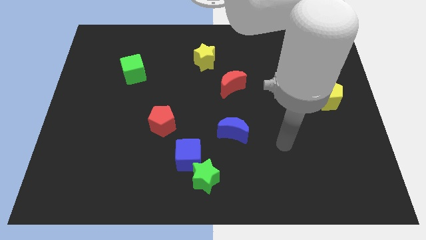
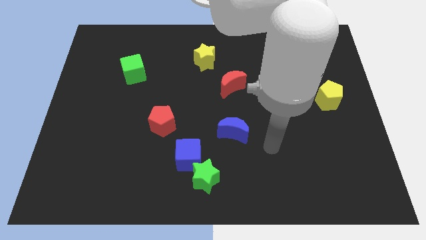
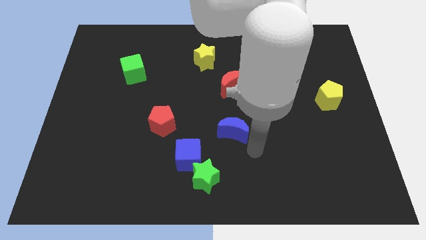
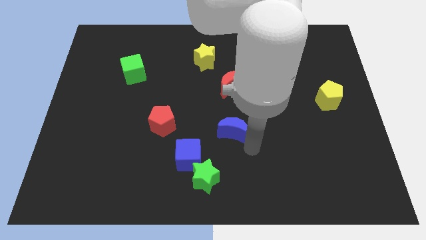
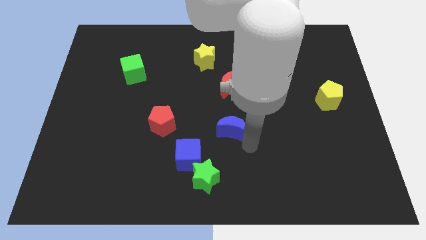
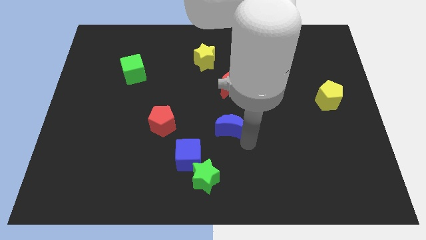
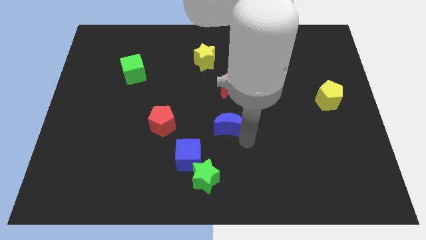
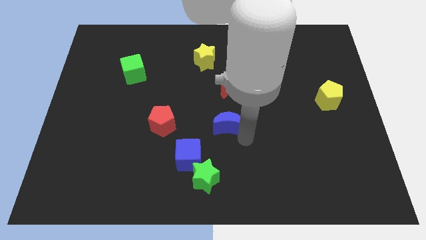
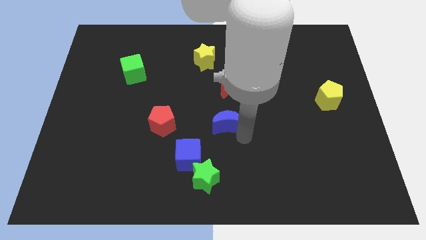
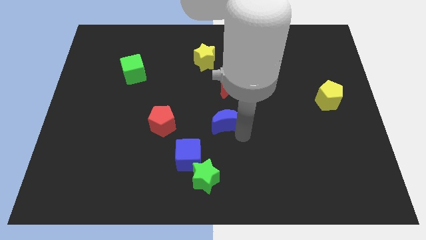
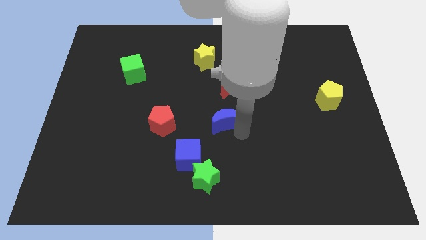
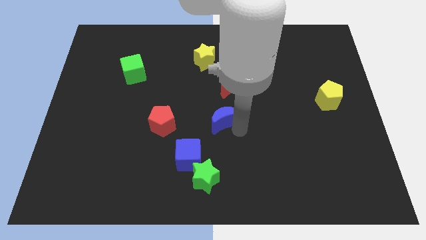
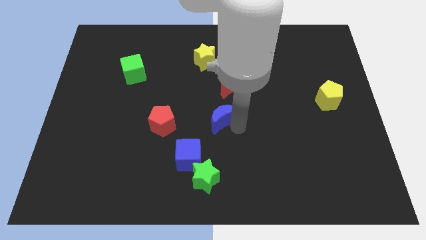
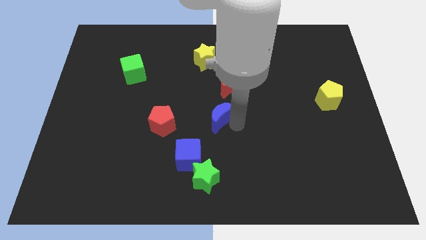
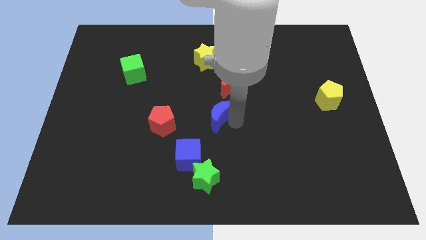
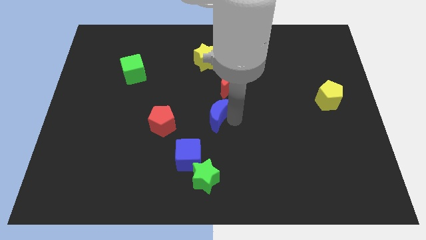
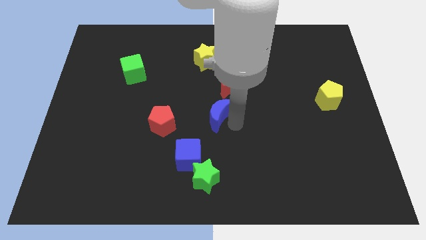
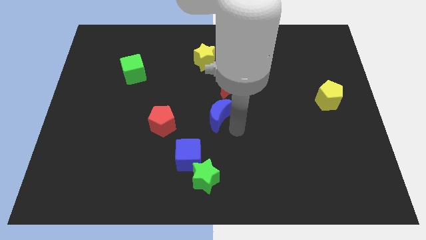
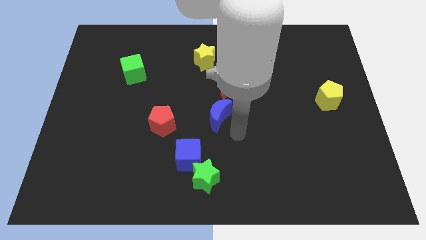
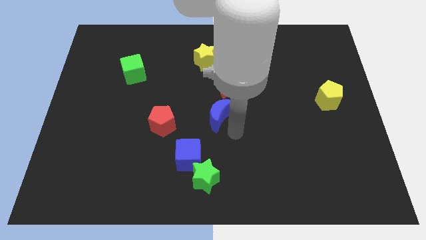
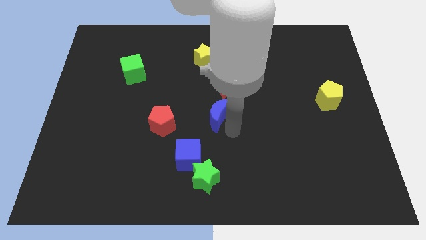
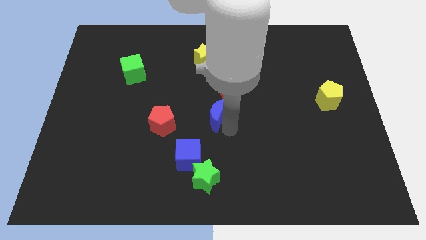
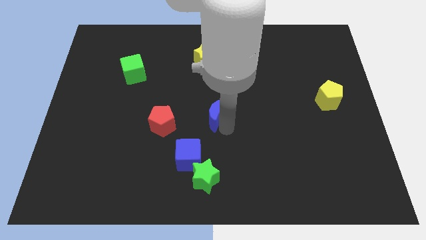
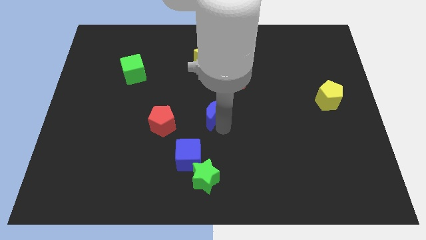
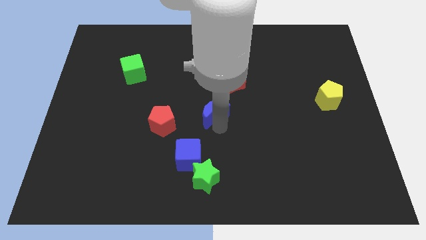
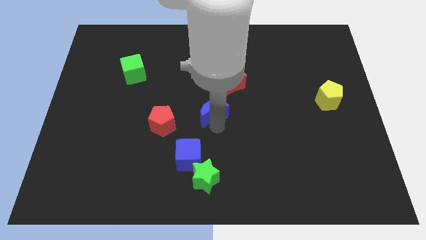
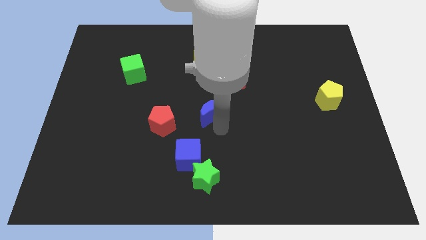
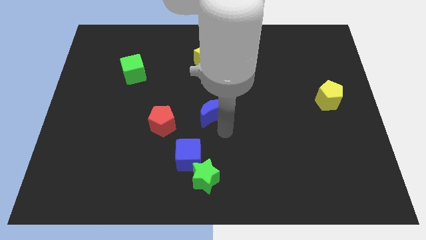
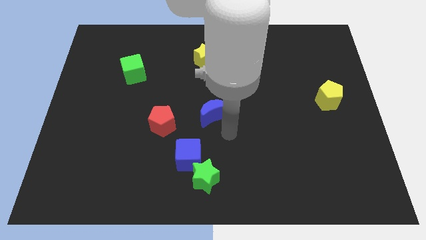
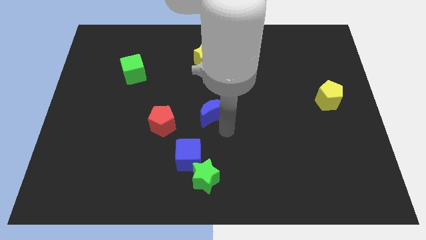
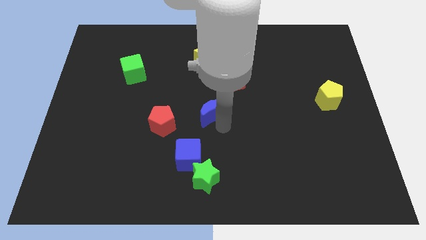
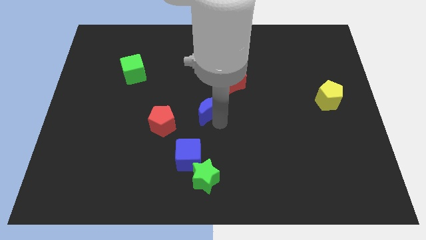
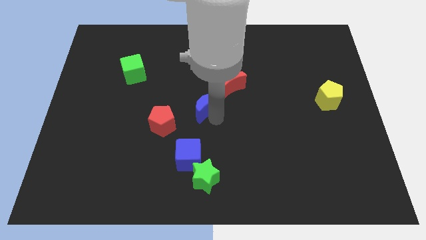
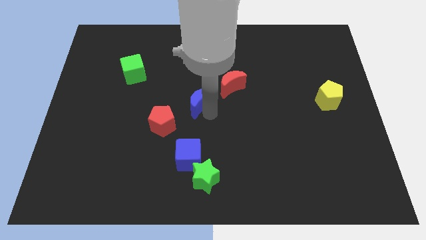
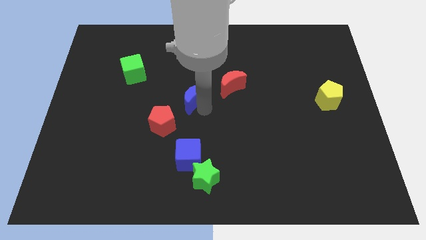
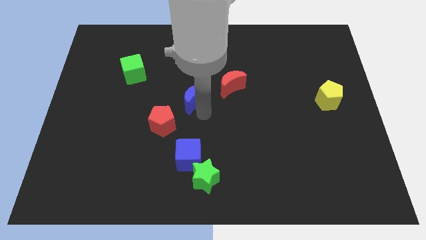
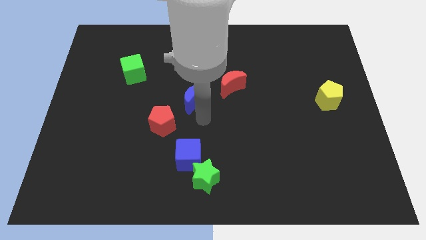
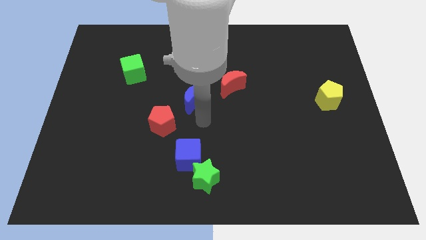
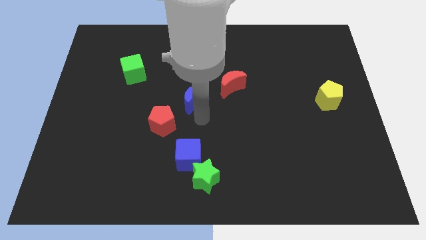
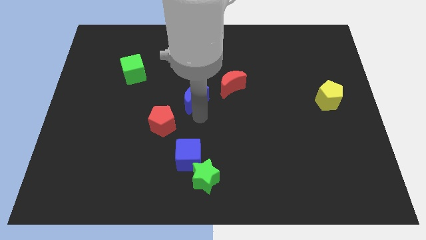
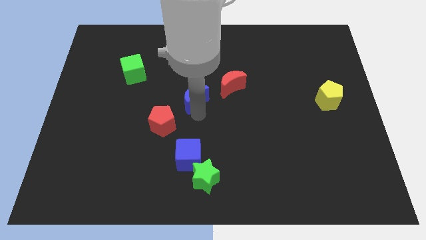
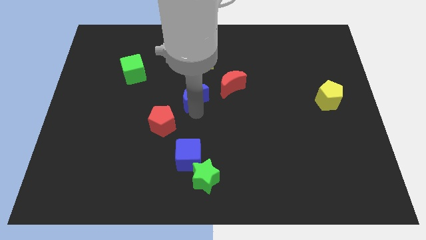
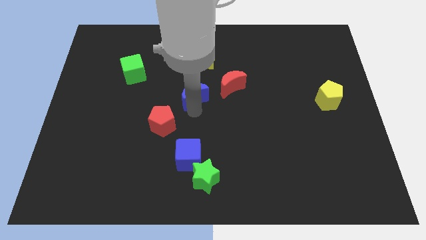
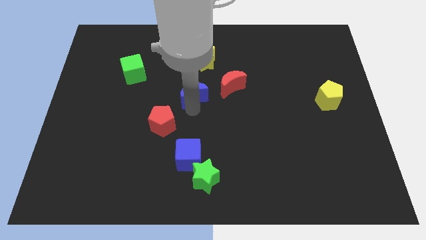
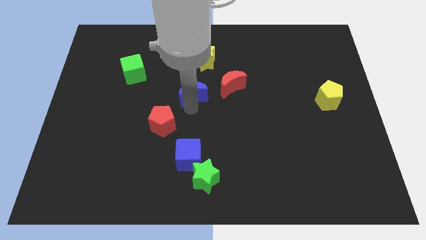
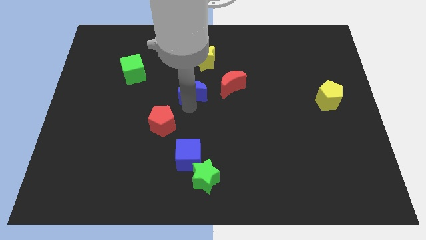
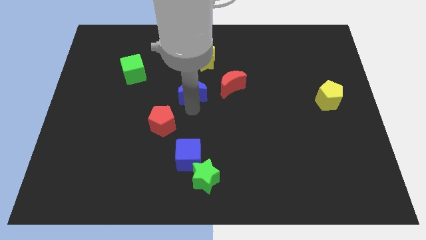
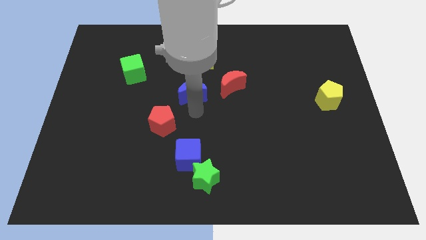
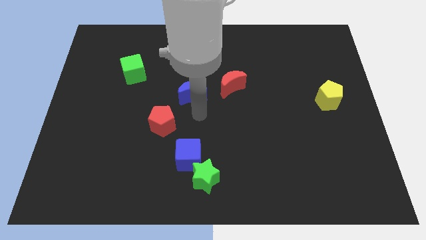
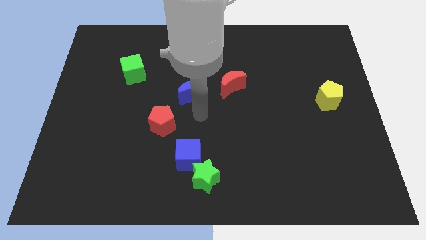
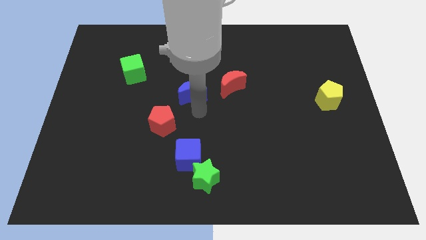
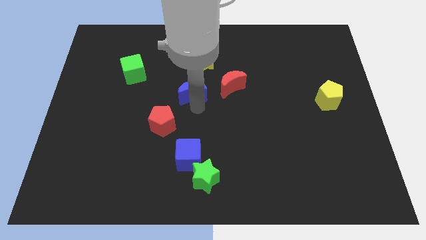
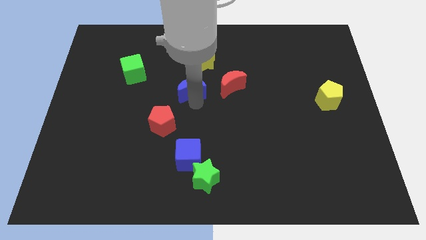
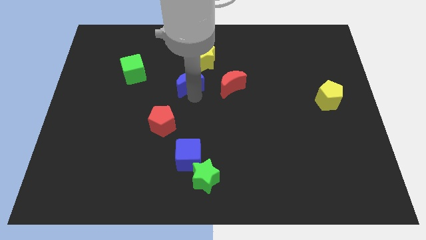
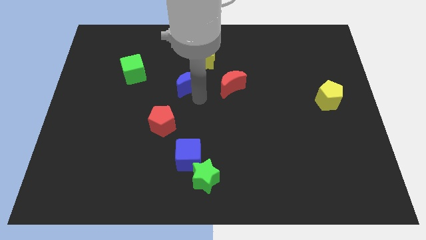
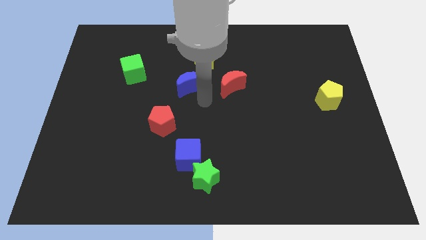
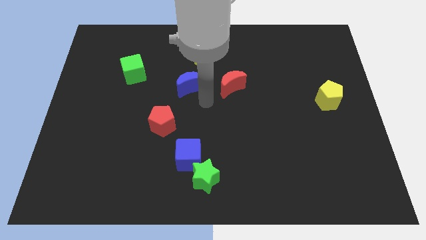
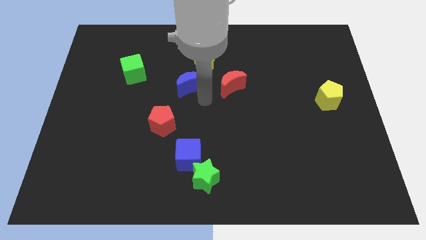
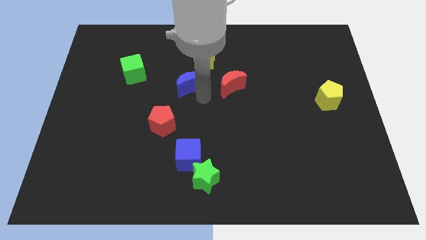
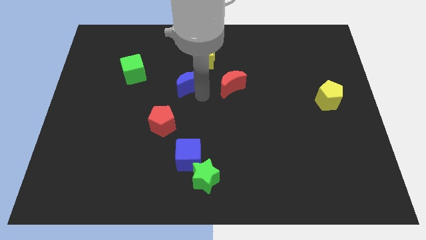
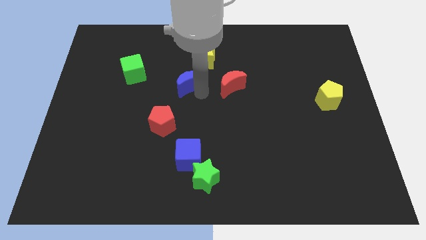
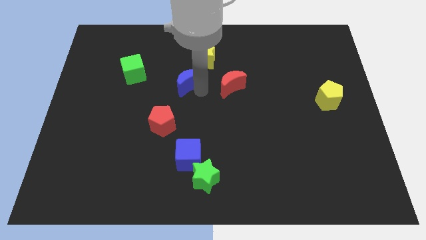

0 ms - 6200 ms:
push the blue moon just right of the green cube

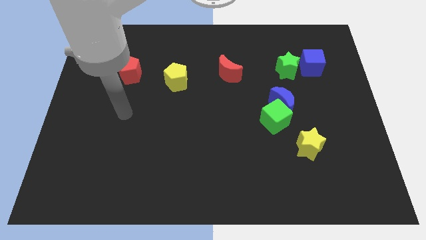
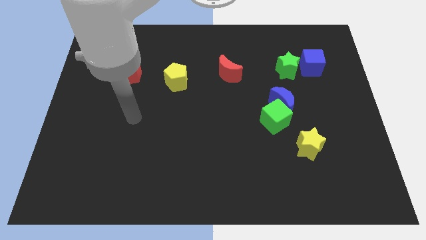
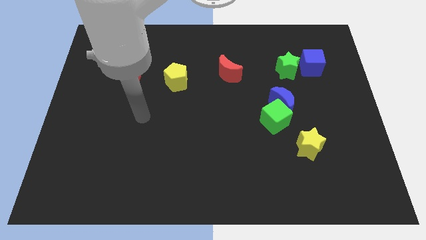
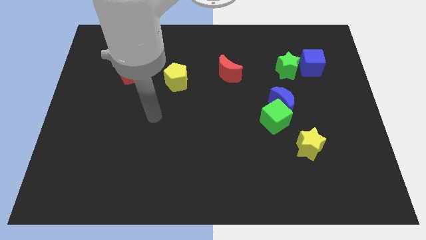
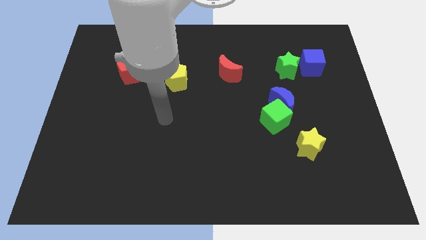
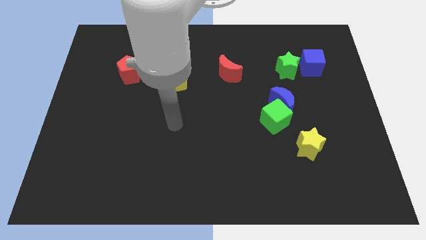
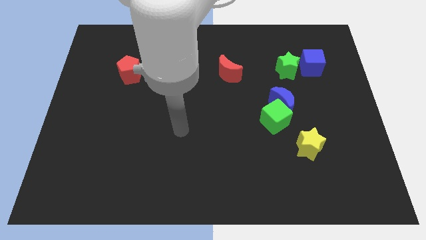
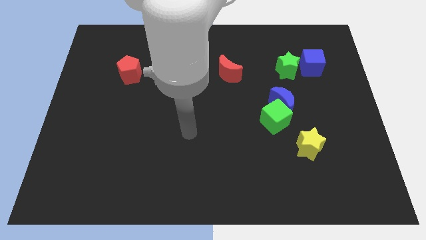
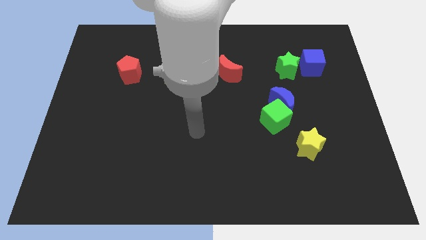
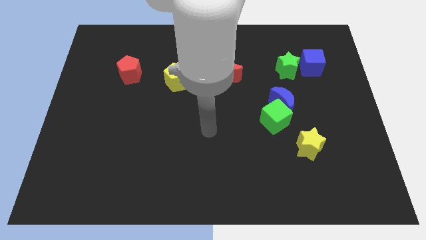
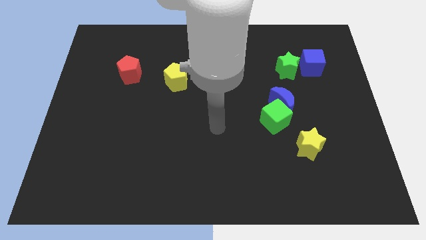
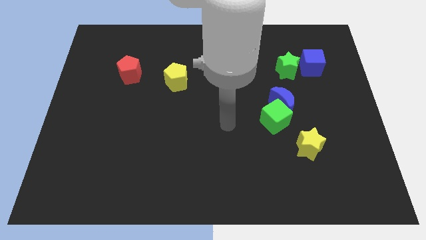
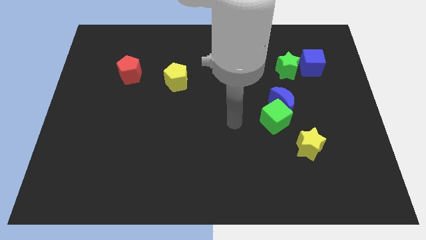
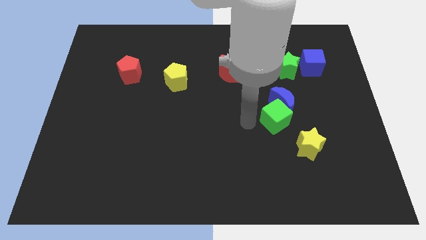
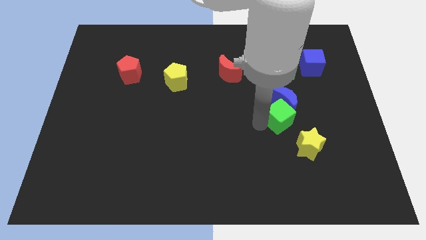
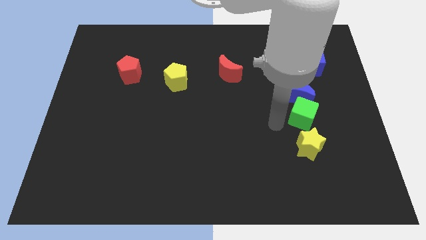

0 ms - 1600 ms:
slide the blue moon to the bottom left side of the blue cube
